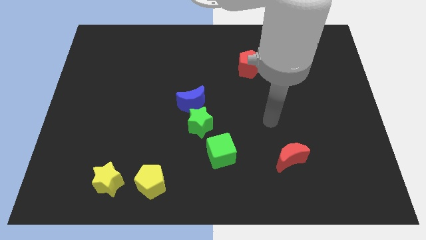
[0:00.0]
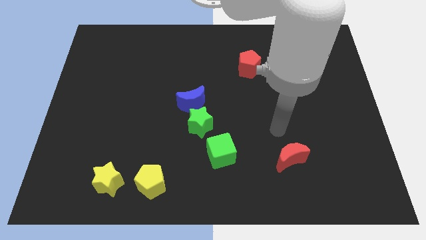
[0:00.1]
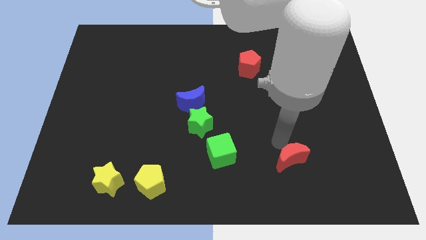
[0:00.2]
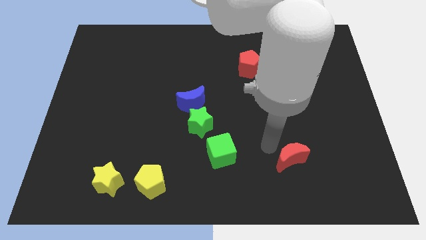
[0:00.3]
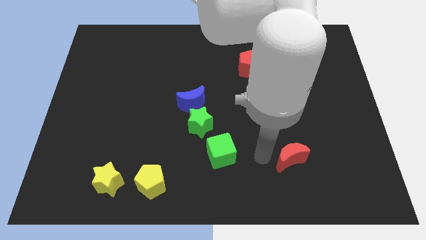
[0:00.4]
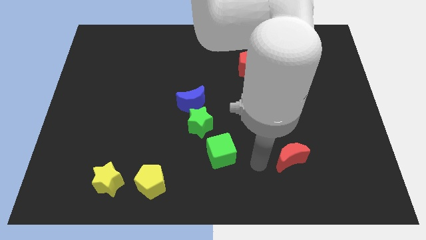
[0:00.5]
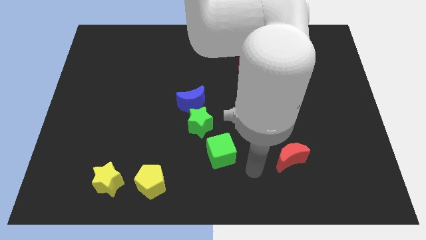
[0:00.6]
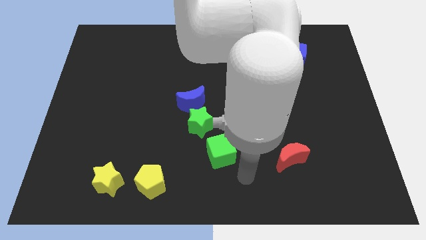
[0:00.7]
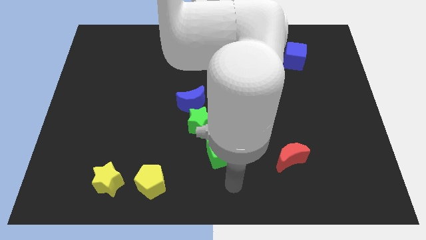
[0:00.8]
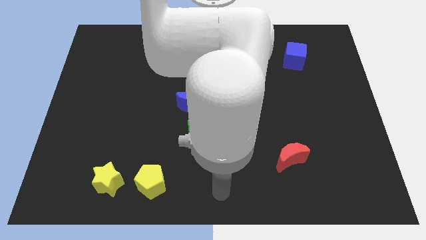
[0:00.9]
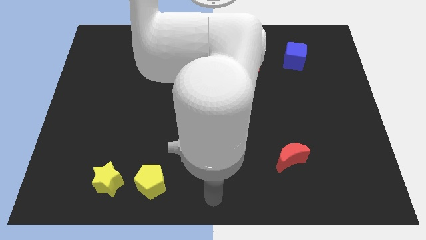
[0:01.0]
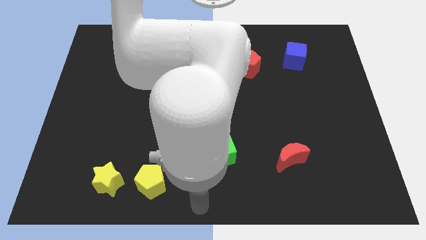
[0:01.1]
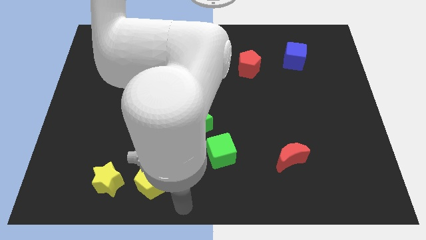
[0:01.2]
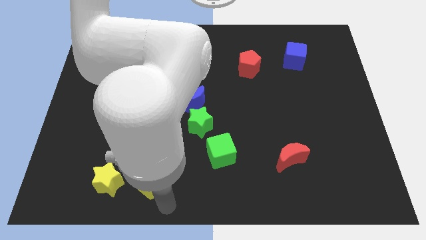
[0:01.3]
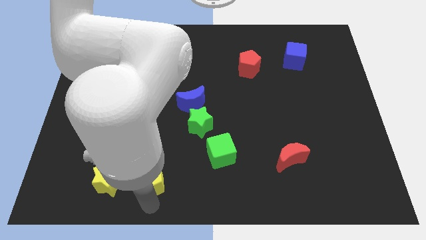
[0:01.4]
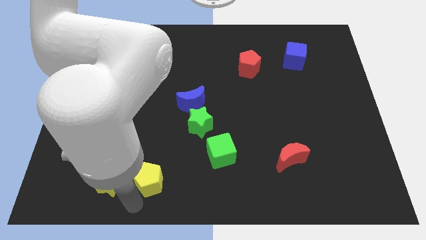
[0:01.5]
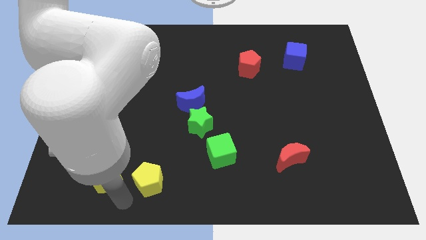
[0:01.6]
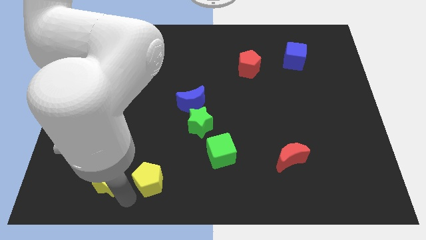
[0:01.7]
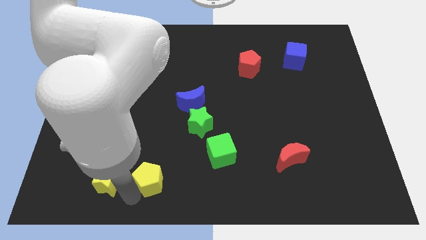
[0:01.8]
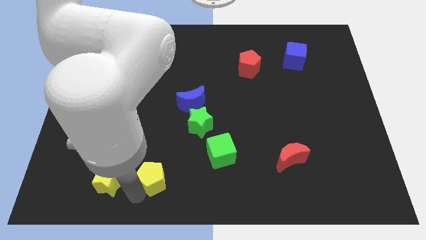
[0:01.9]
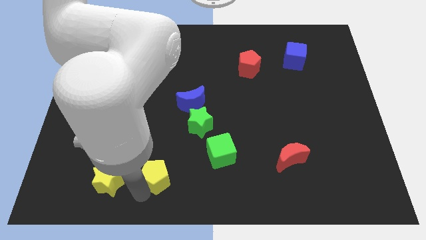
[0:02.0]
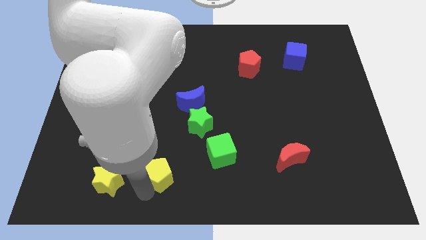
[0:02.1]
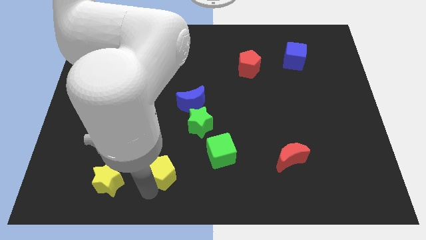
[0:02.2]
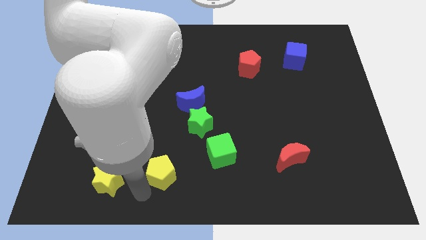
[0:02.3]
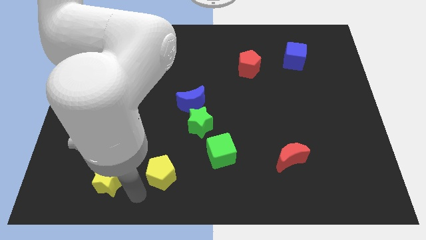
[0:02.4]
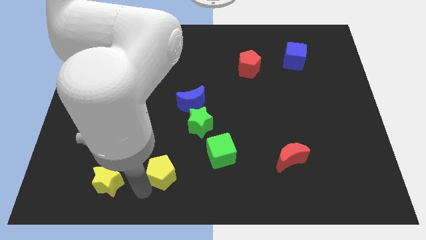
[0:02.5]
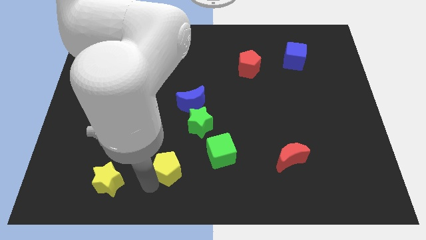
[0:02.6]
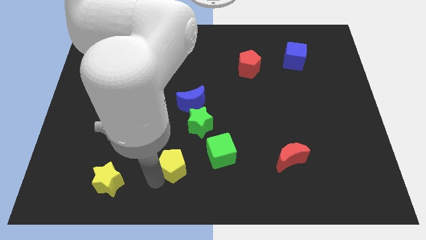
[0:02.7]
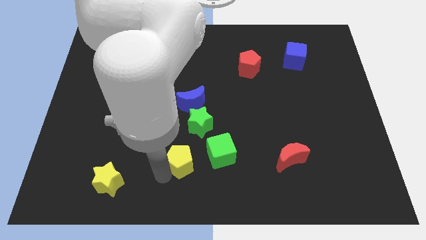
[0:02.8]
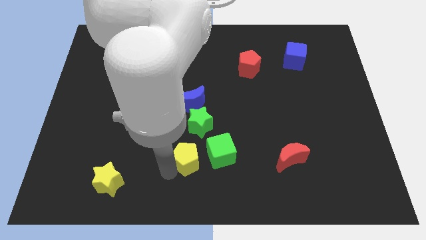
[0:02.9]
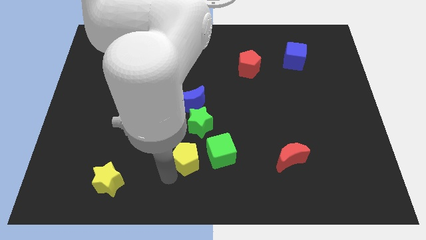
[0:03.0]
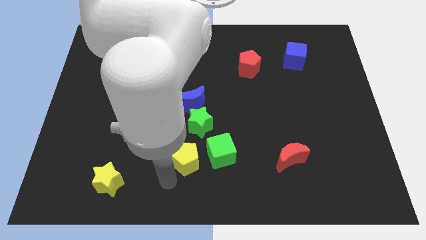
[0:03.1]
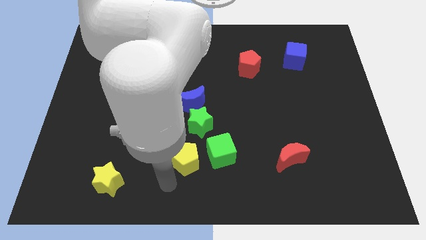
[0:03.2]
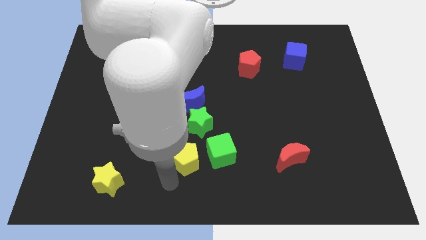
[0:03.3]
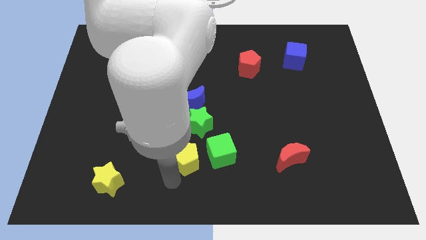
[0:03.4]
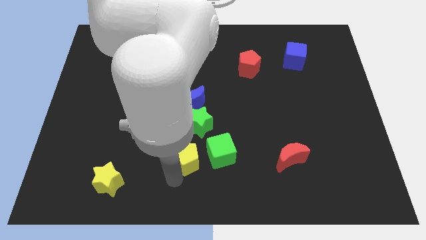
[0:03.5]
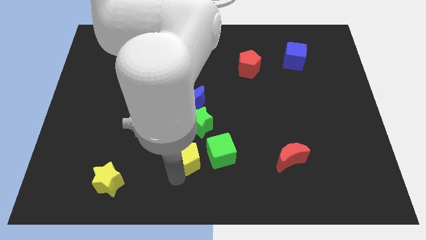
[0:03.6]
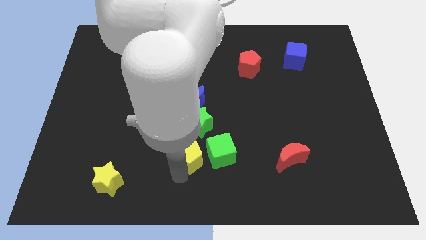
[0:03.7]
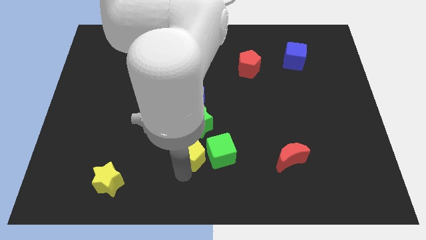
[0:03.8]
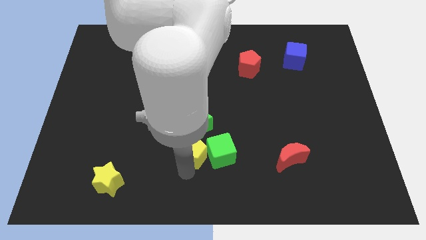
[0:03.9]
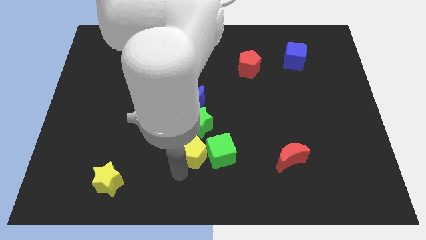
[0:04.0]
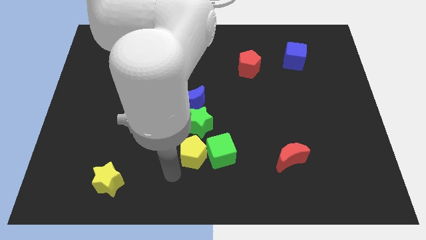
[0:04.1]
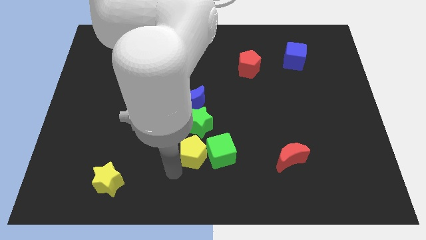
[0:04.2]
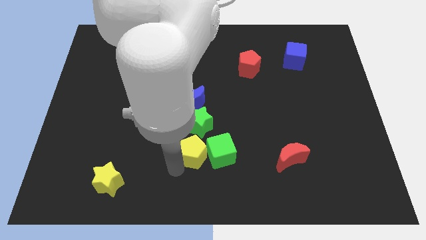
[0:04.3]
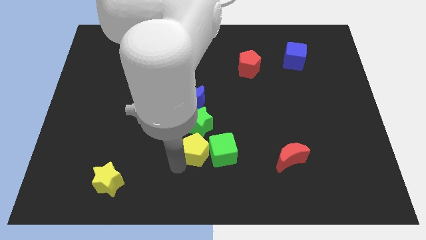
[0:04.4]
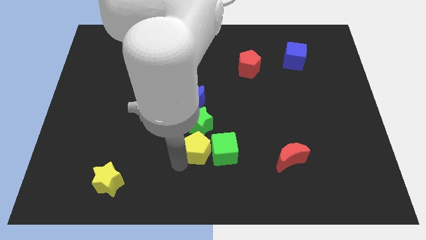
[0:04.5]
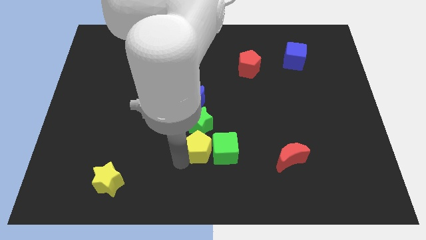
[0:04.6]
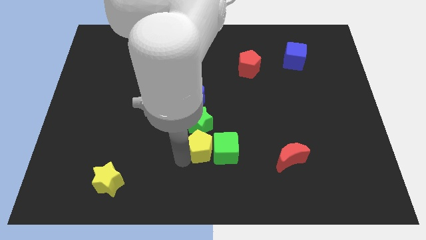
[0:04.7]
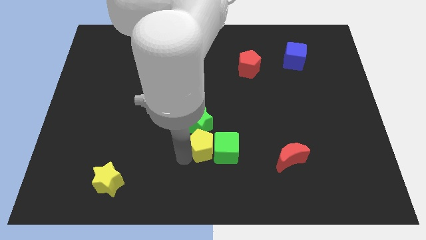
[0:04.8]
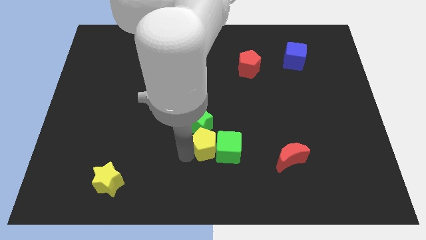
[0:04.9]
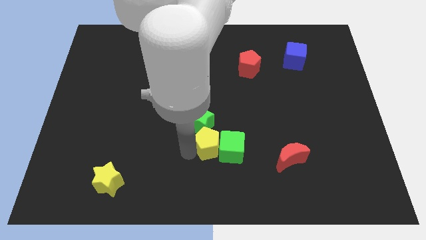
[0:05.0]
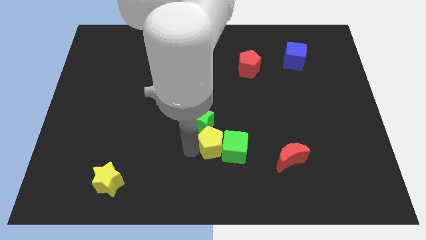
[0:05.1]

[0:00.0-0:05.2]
move the yellow pentagon to the middle of the board

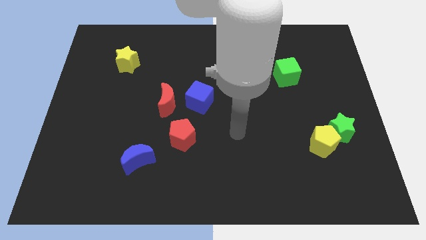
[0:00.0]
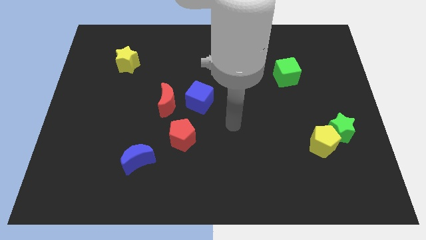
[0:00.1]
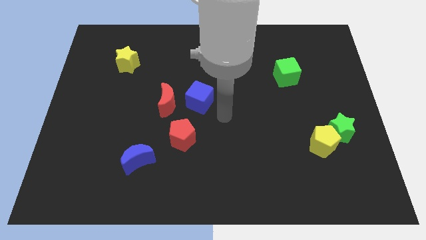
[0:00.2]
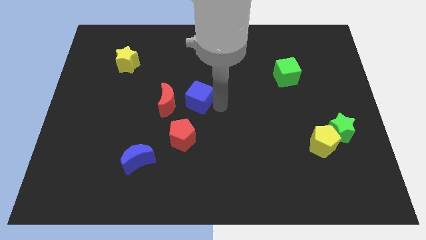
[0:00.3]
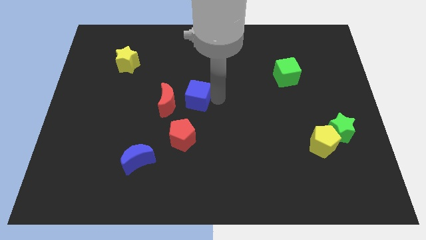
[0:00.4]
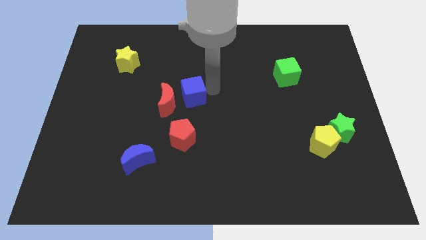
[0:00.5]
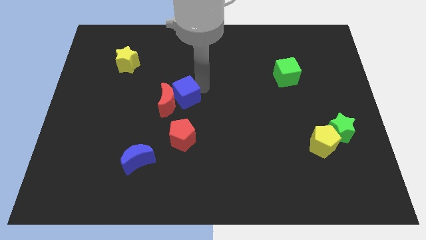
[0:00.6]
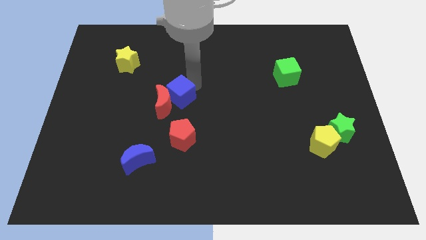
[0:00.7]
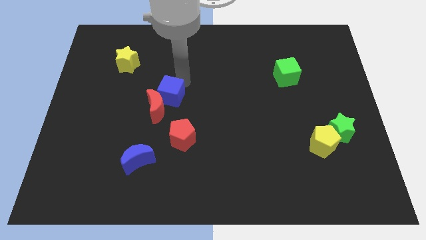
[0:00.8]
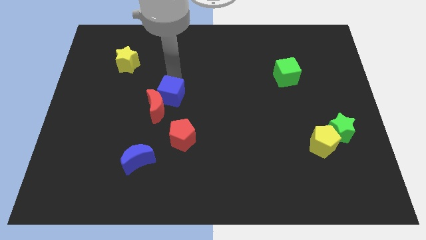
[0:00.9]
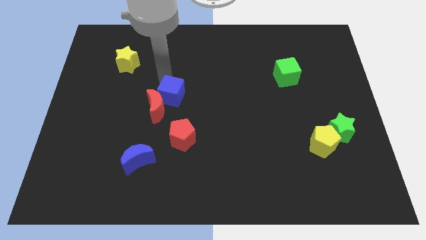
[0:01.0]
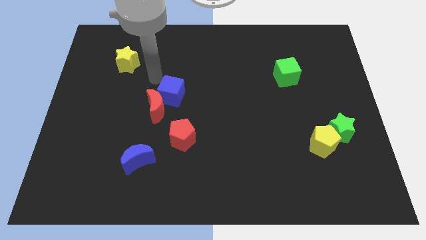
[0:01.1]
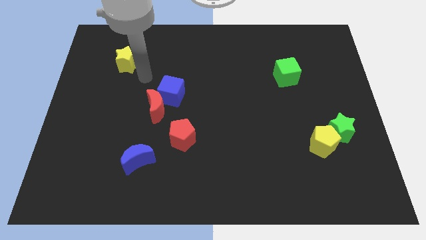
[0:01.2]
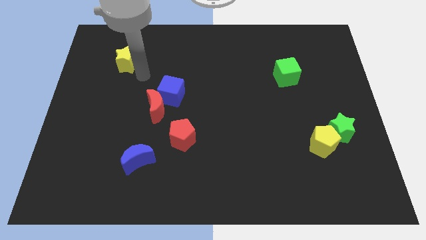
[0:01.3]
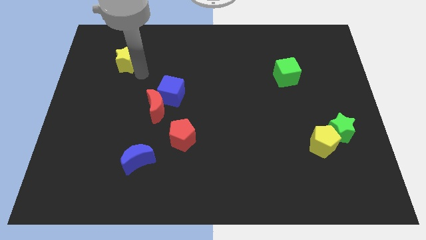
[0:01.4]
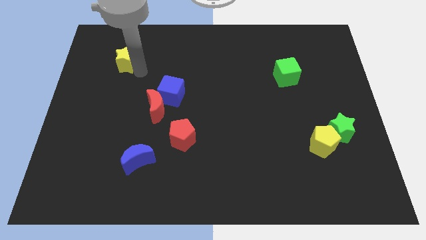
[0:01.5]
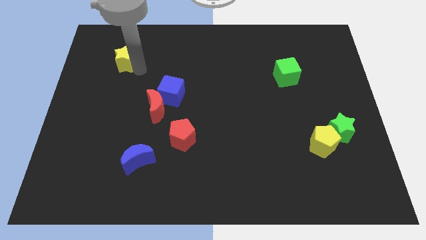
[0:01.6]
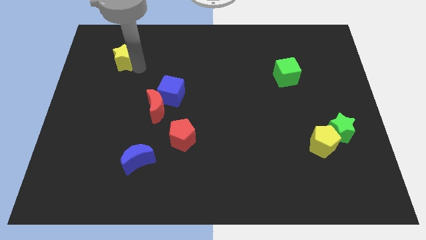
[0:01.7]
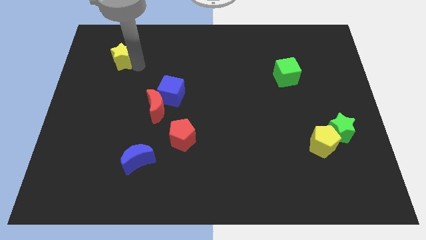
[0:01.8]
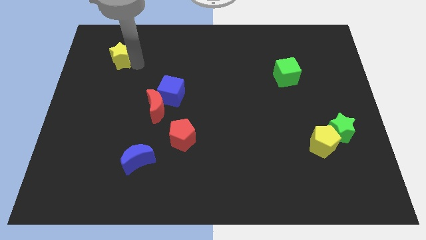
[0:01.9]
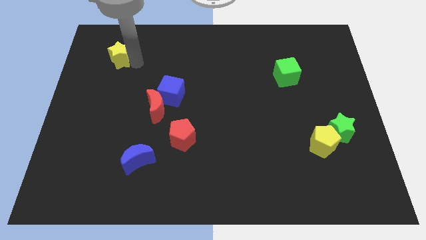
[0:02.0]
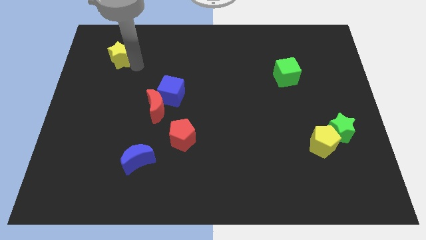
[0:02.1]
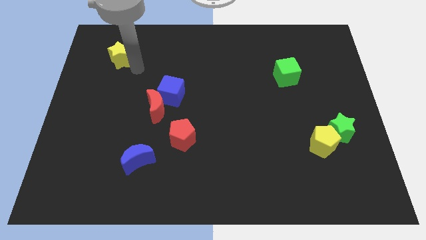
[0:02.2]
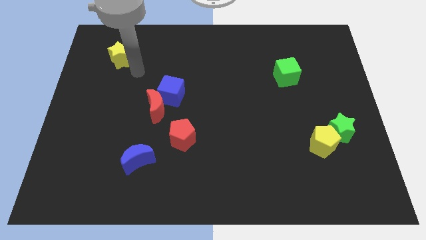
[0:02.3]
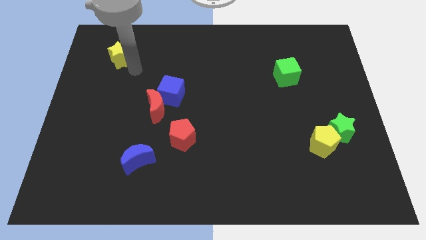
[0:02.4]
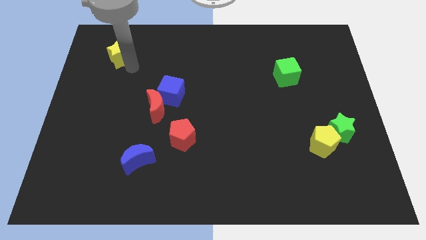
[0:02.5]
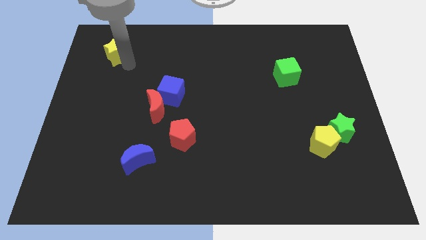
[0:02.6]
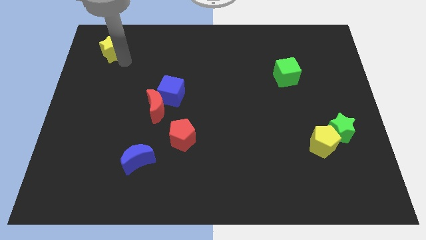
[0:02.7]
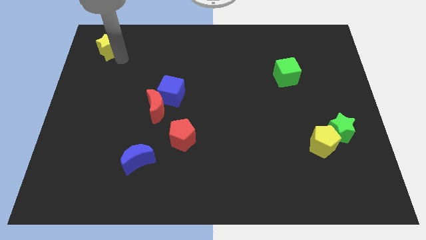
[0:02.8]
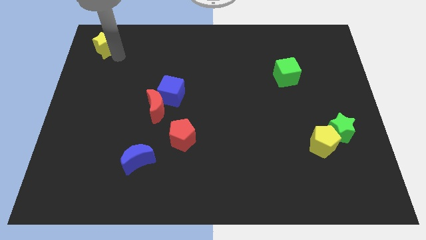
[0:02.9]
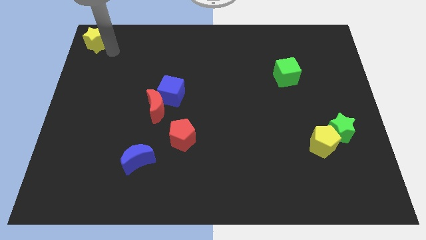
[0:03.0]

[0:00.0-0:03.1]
move the yellow star to the top left
